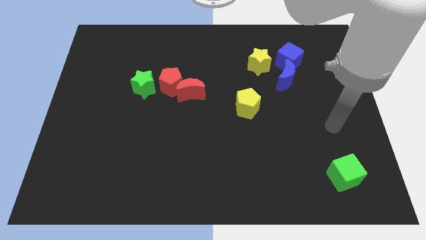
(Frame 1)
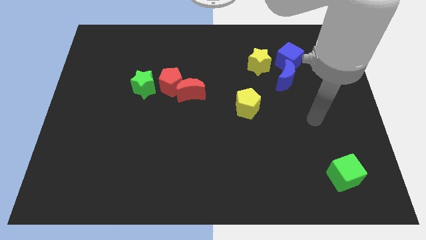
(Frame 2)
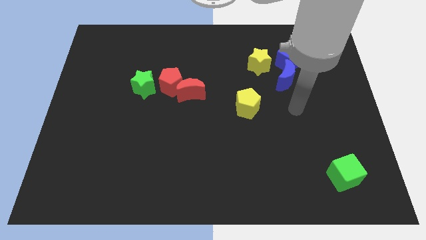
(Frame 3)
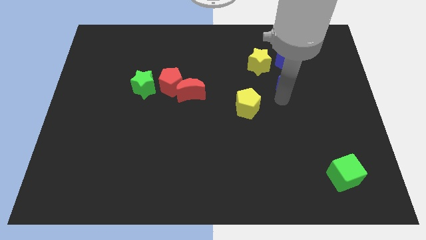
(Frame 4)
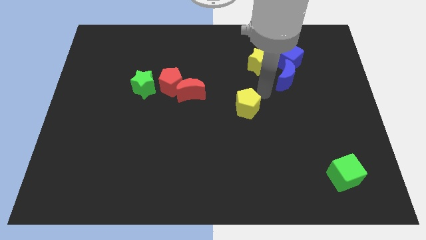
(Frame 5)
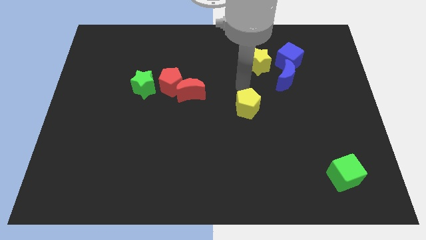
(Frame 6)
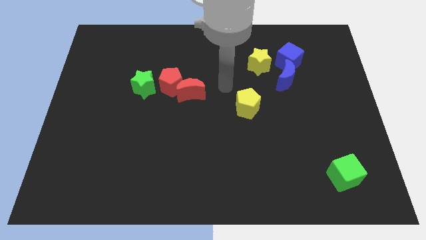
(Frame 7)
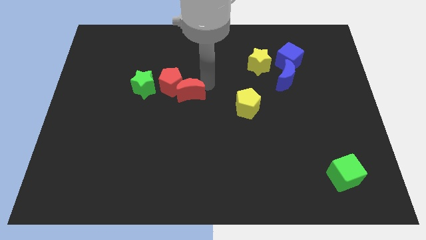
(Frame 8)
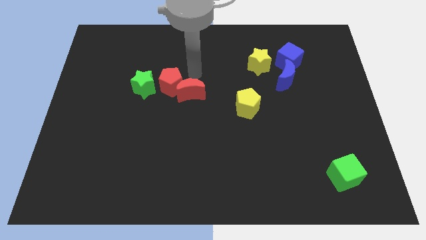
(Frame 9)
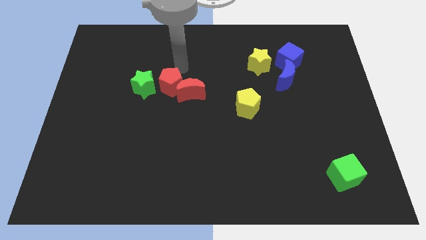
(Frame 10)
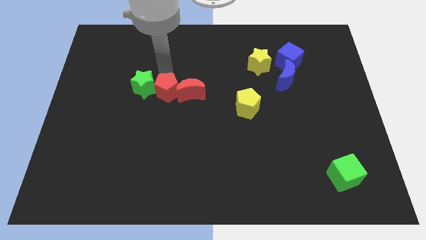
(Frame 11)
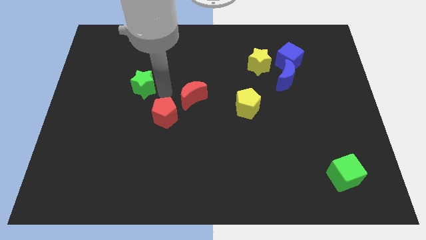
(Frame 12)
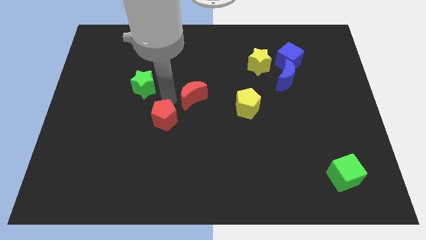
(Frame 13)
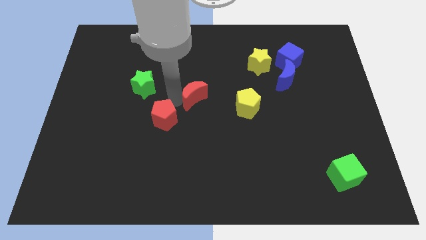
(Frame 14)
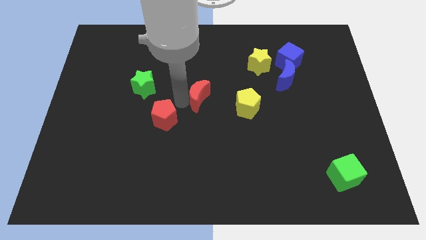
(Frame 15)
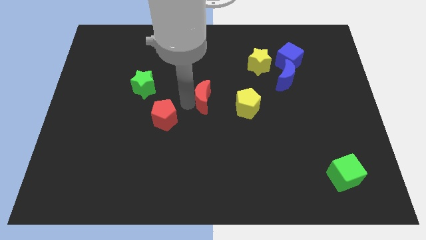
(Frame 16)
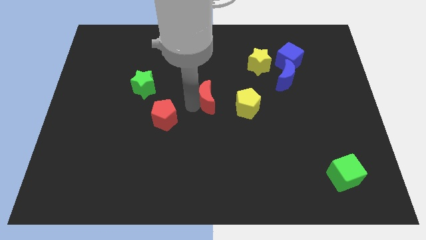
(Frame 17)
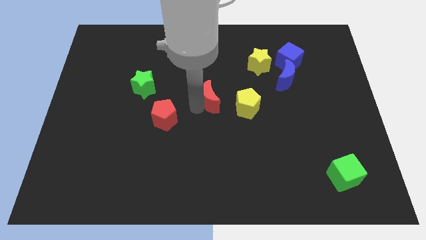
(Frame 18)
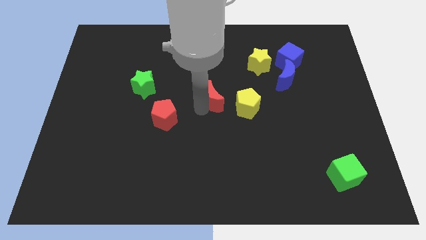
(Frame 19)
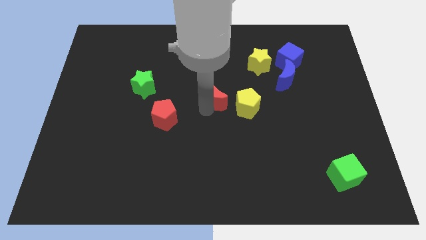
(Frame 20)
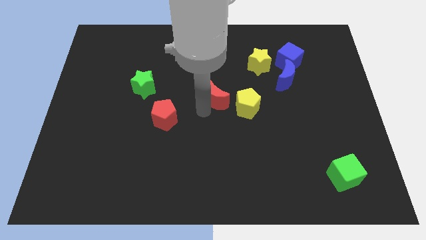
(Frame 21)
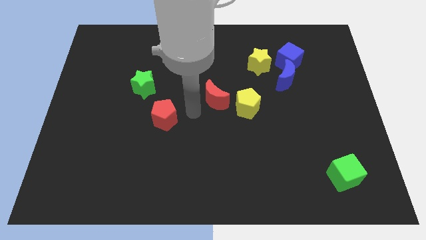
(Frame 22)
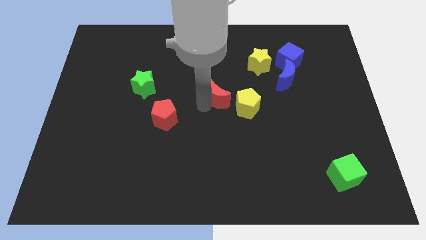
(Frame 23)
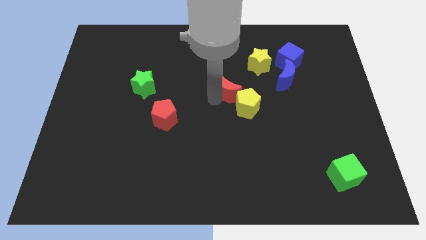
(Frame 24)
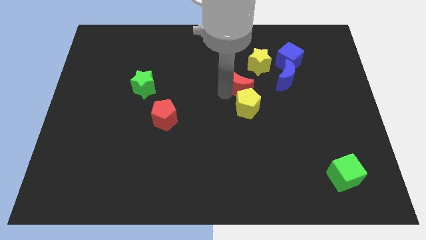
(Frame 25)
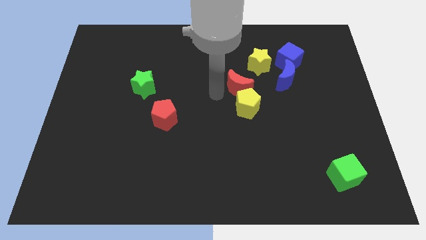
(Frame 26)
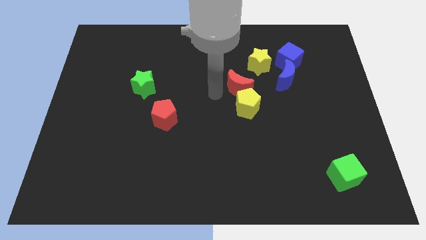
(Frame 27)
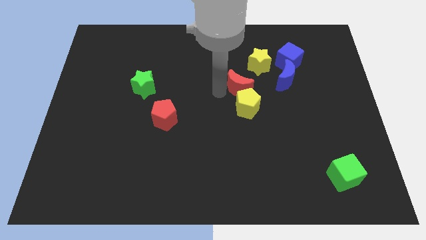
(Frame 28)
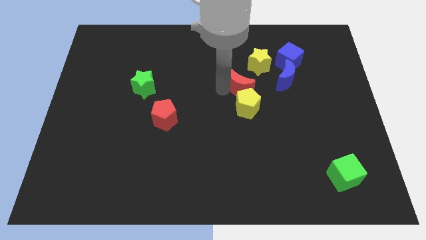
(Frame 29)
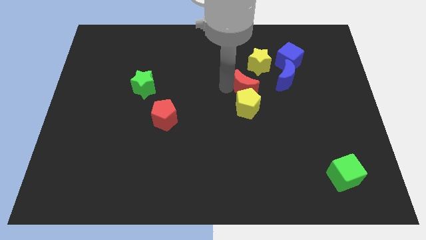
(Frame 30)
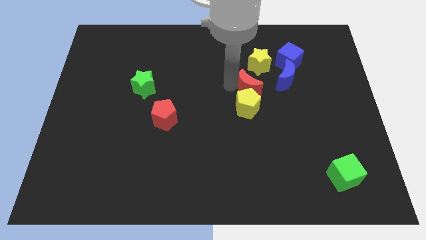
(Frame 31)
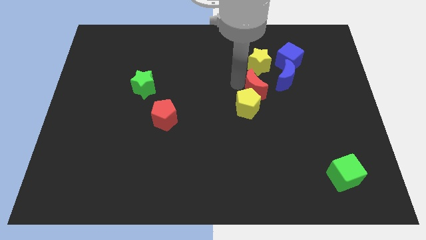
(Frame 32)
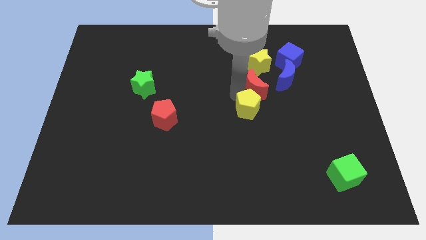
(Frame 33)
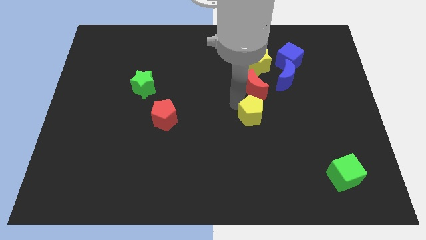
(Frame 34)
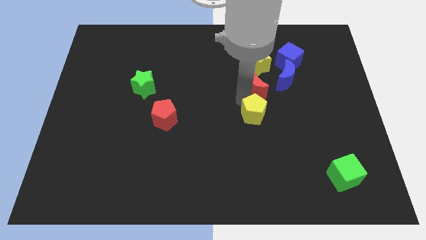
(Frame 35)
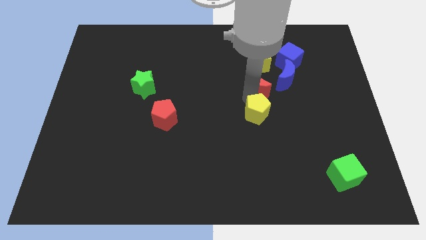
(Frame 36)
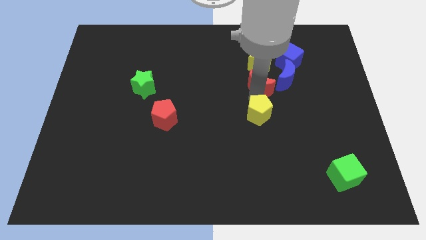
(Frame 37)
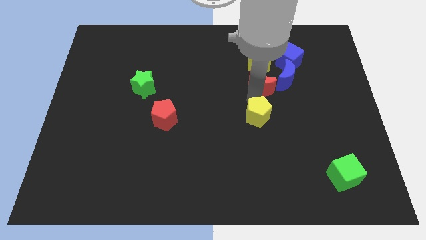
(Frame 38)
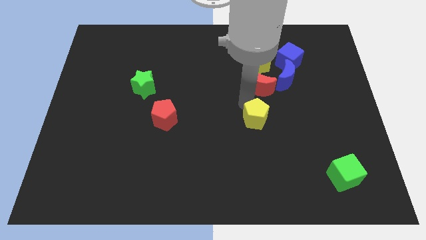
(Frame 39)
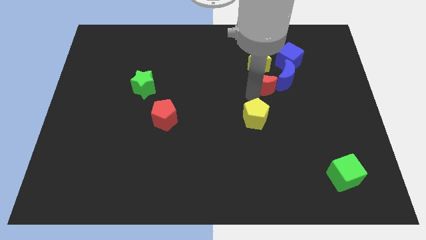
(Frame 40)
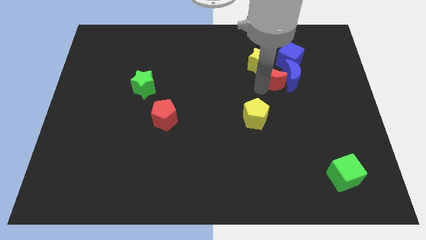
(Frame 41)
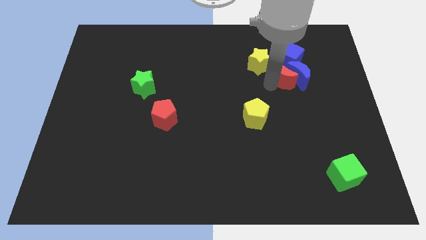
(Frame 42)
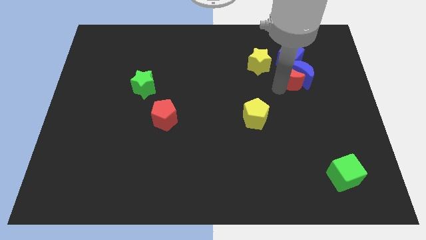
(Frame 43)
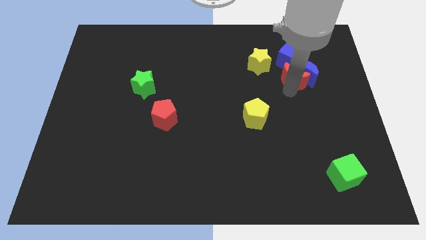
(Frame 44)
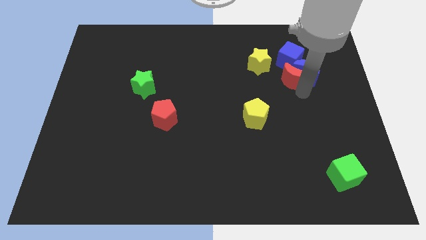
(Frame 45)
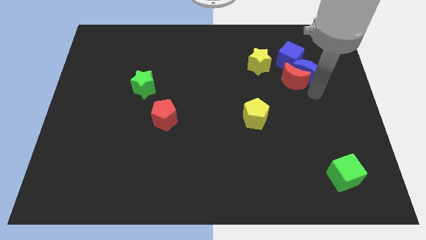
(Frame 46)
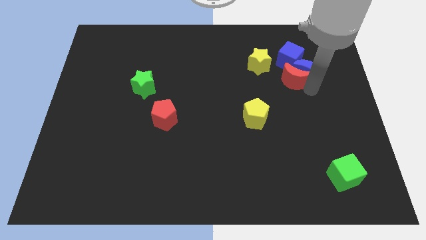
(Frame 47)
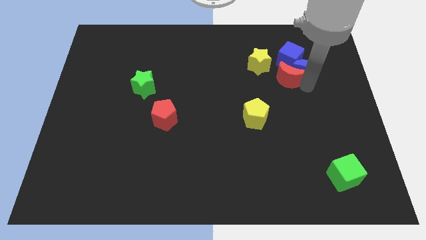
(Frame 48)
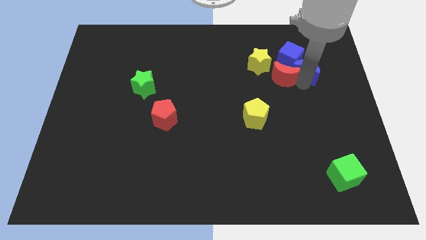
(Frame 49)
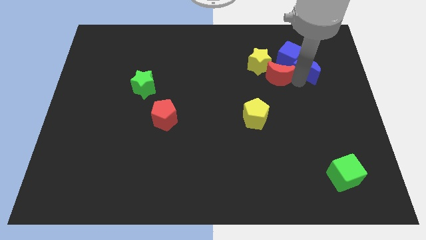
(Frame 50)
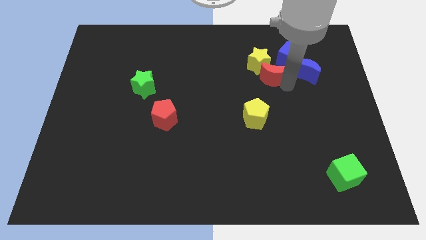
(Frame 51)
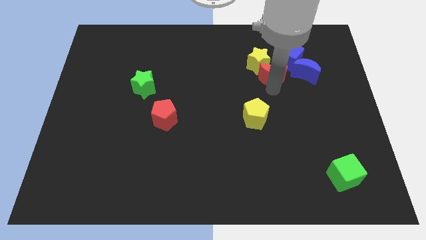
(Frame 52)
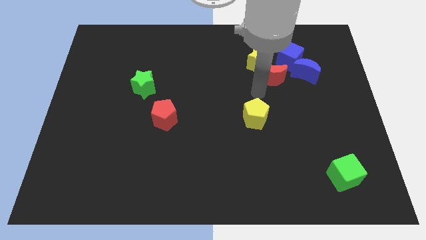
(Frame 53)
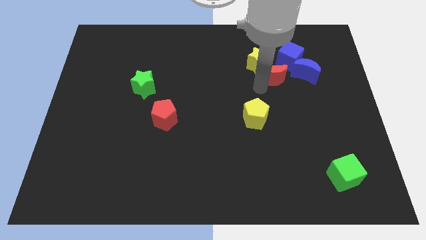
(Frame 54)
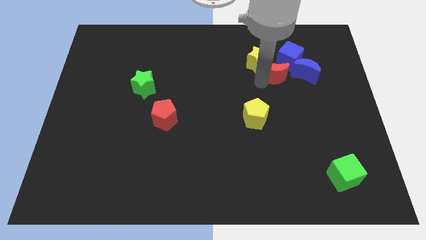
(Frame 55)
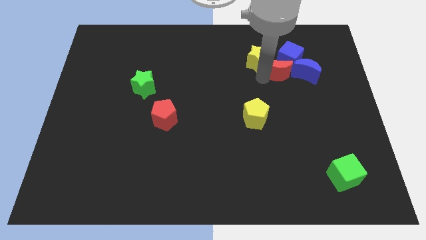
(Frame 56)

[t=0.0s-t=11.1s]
move the red moon close to the blue cube

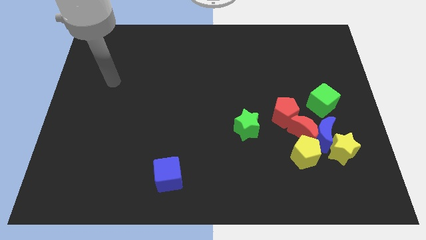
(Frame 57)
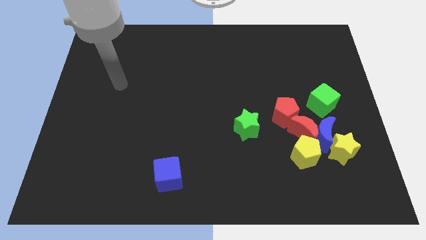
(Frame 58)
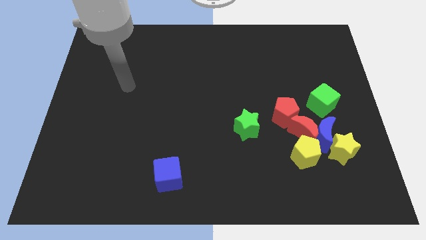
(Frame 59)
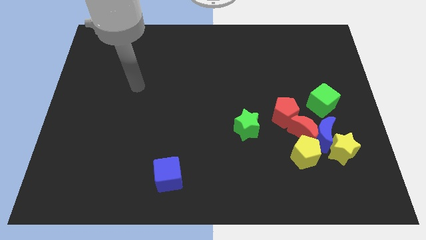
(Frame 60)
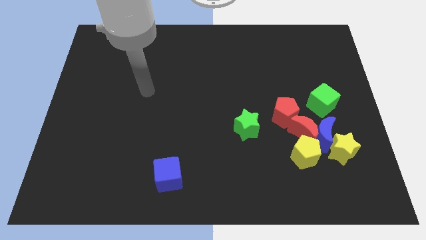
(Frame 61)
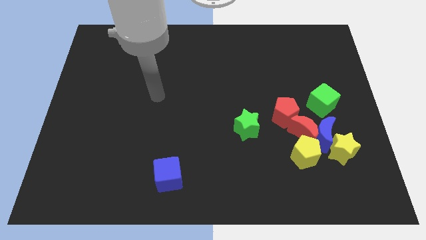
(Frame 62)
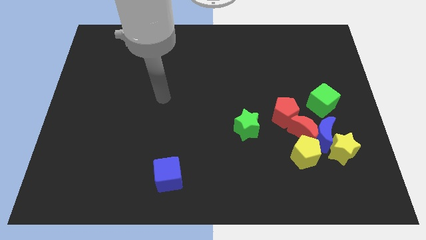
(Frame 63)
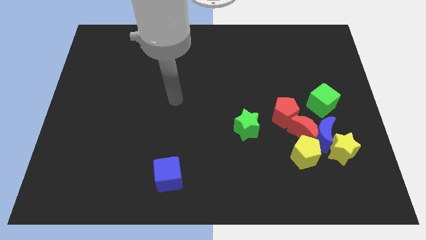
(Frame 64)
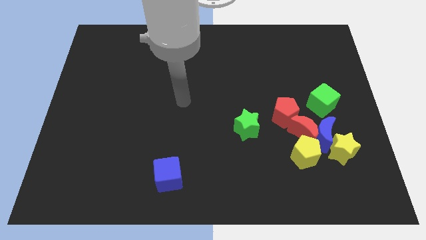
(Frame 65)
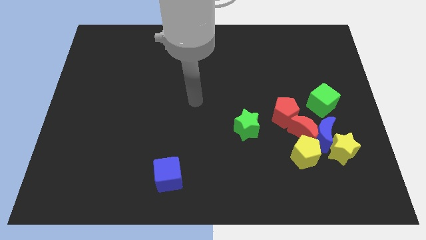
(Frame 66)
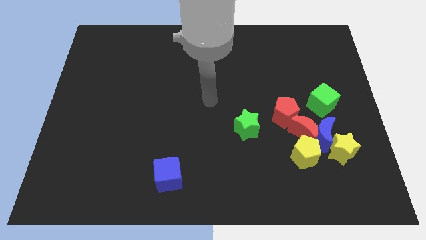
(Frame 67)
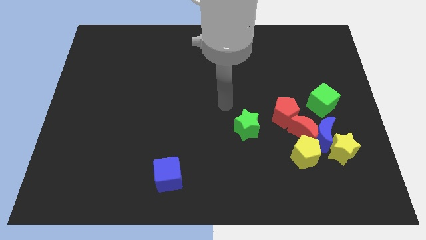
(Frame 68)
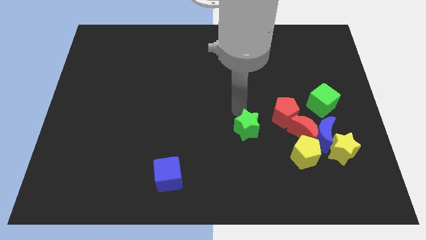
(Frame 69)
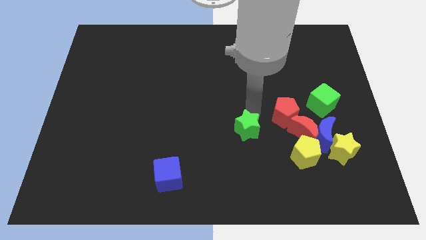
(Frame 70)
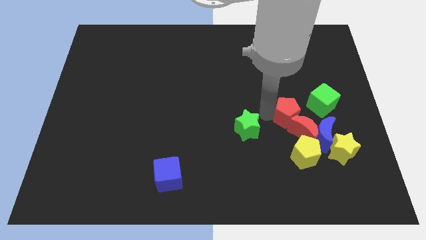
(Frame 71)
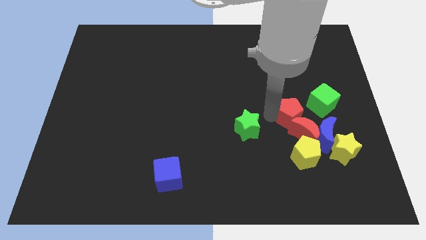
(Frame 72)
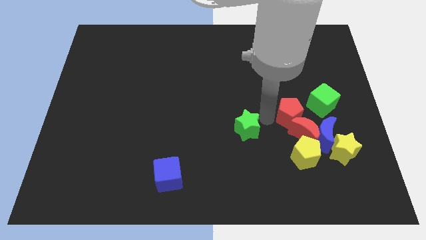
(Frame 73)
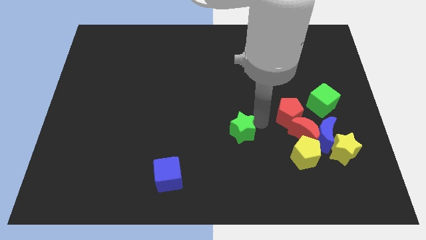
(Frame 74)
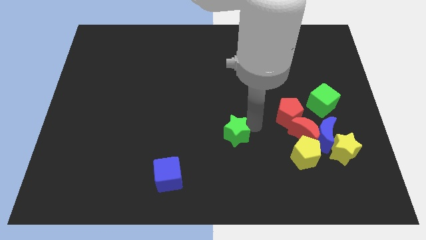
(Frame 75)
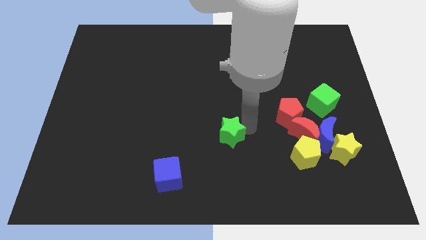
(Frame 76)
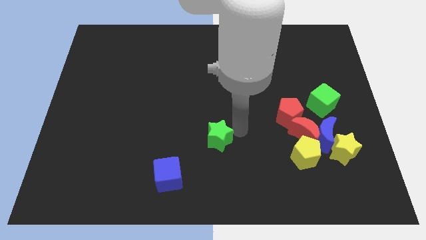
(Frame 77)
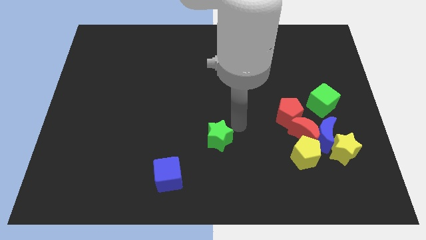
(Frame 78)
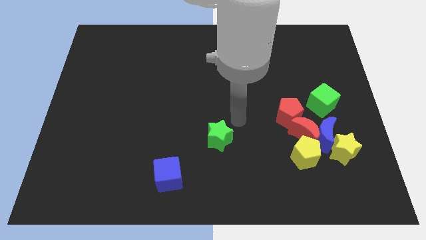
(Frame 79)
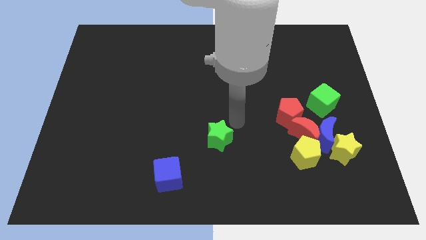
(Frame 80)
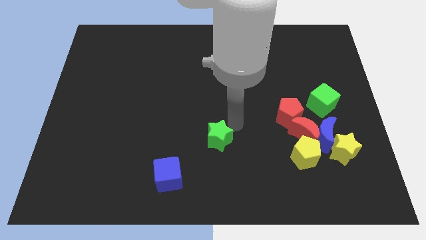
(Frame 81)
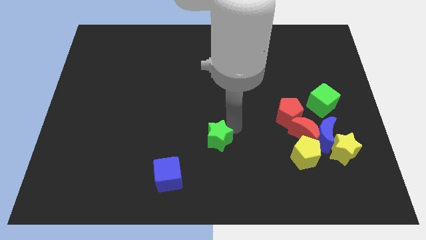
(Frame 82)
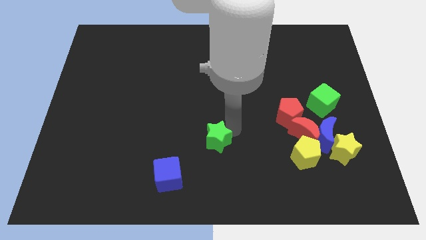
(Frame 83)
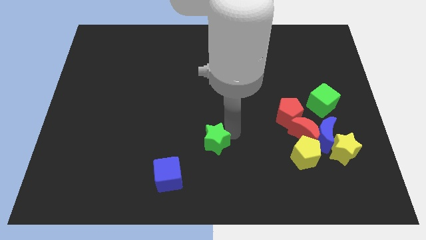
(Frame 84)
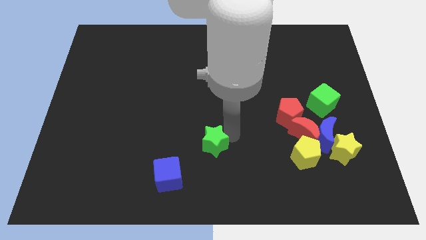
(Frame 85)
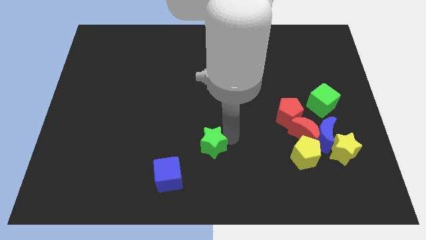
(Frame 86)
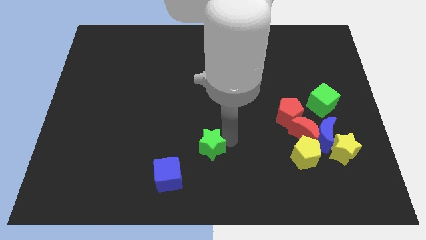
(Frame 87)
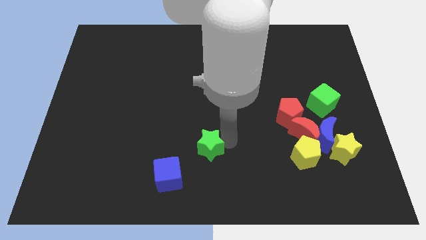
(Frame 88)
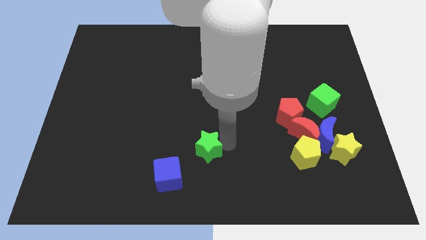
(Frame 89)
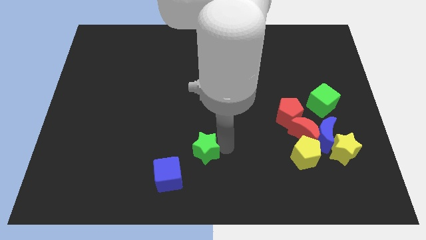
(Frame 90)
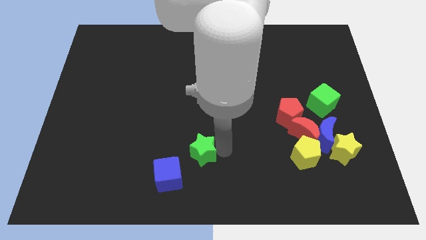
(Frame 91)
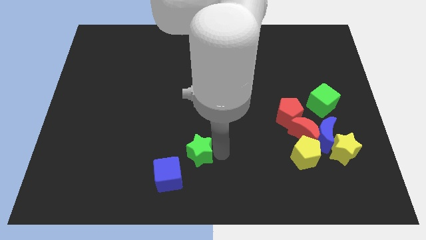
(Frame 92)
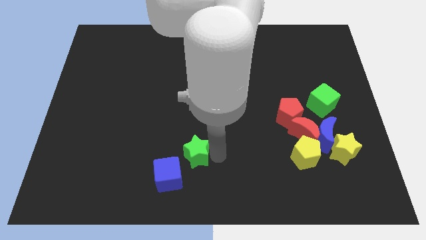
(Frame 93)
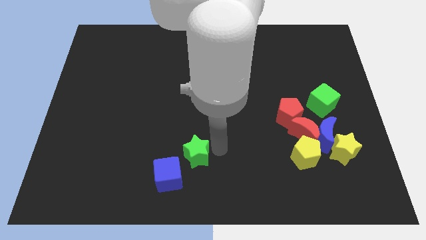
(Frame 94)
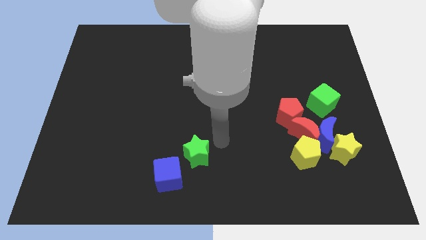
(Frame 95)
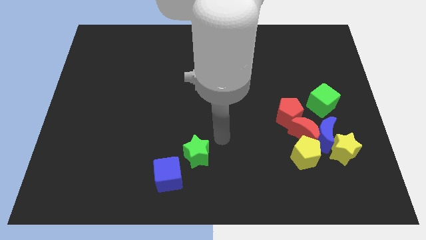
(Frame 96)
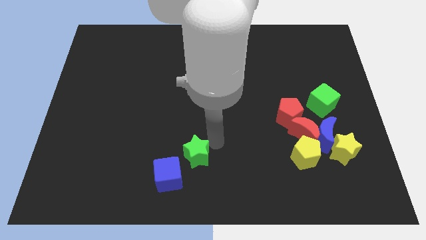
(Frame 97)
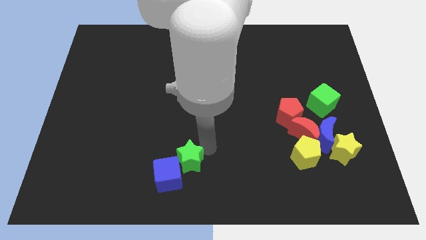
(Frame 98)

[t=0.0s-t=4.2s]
put the green star close to the blue cube
